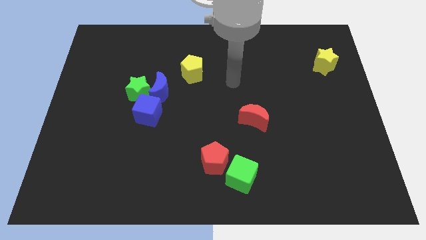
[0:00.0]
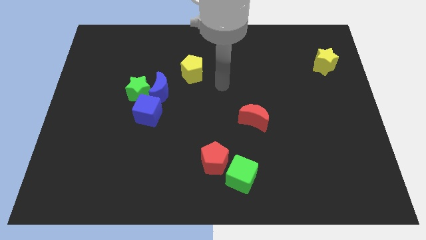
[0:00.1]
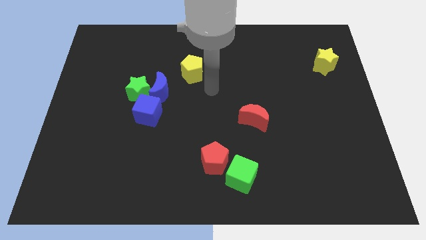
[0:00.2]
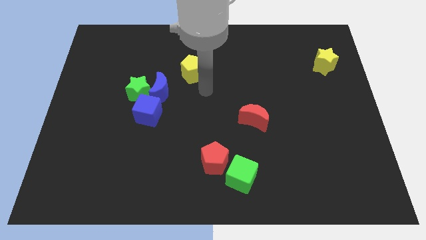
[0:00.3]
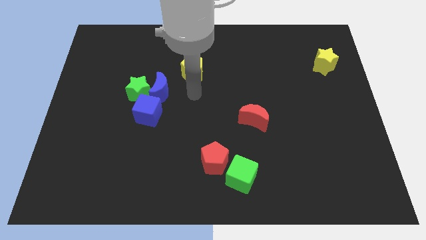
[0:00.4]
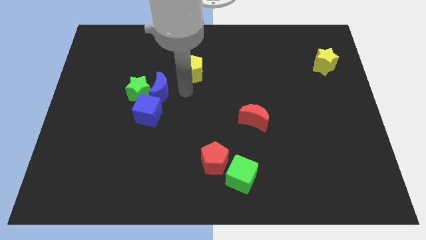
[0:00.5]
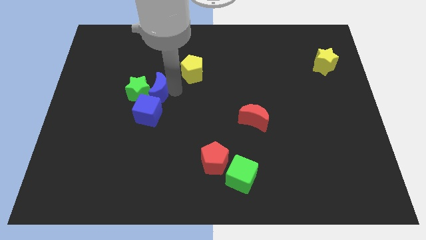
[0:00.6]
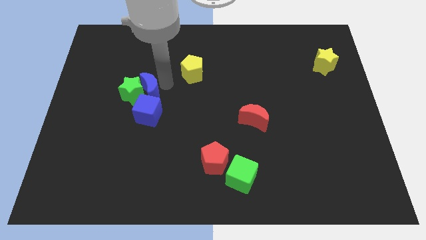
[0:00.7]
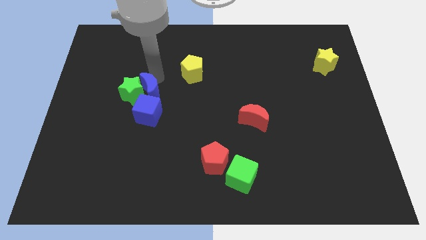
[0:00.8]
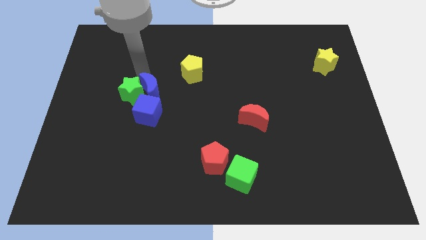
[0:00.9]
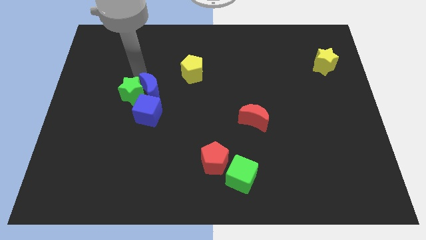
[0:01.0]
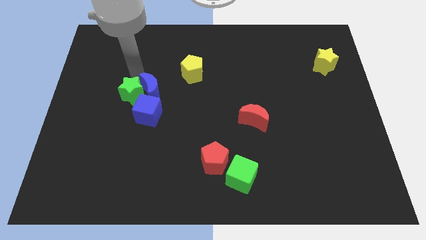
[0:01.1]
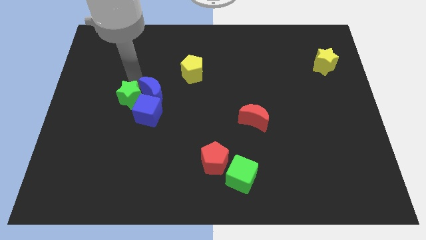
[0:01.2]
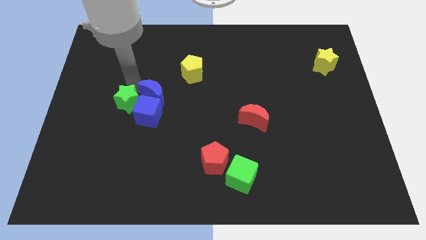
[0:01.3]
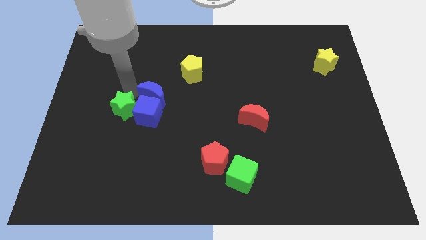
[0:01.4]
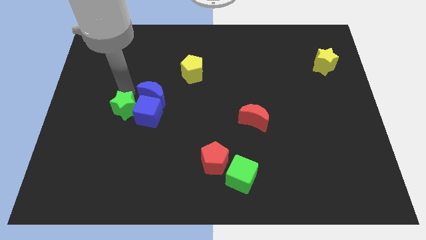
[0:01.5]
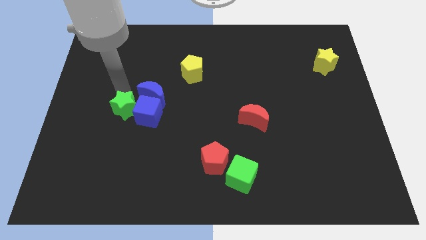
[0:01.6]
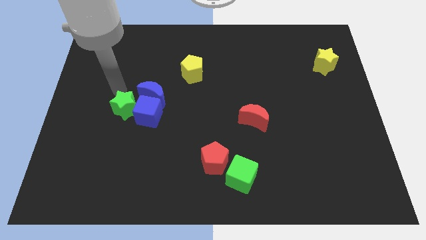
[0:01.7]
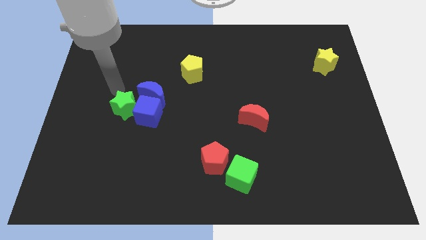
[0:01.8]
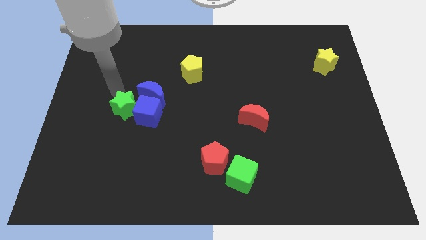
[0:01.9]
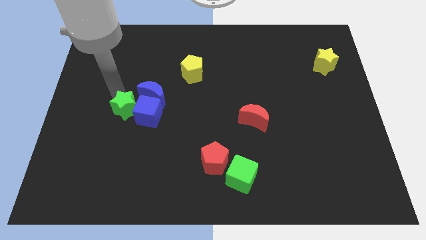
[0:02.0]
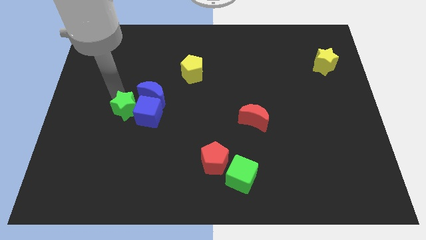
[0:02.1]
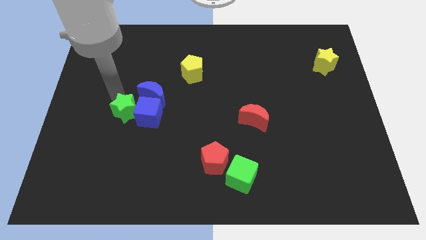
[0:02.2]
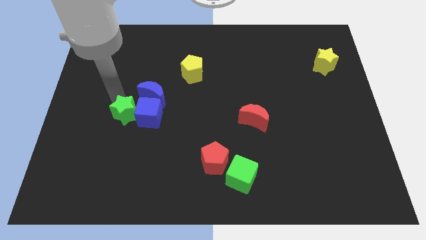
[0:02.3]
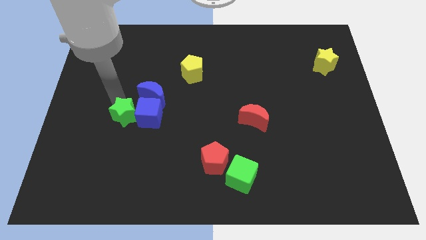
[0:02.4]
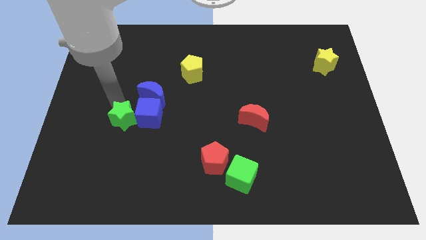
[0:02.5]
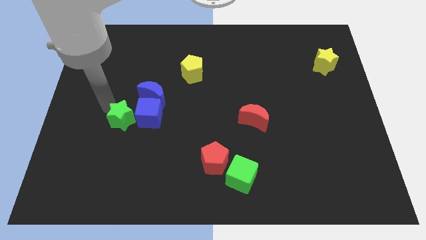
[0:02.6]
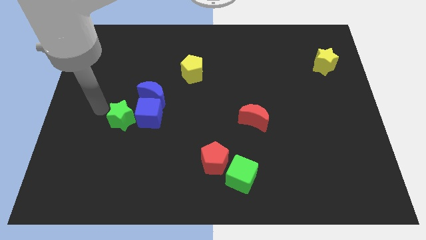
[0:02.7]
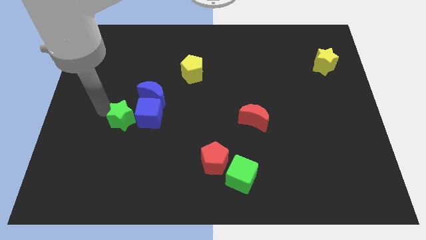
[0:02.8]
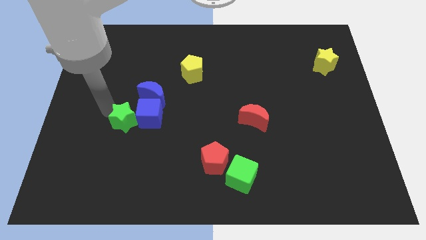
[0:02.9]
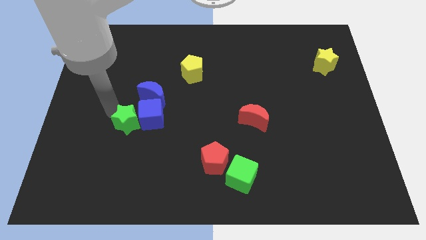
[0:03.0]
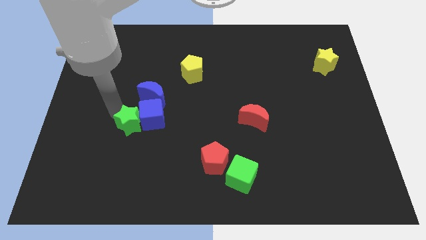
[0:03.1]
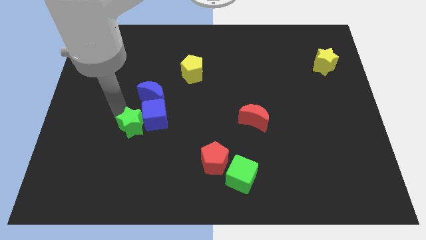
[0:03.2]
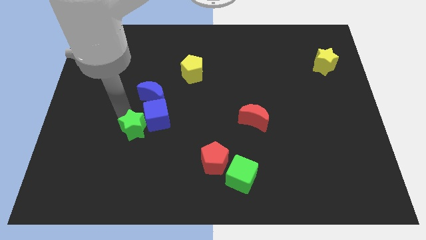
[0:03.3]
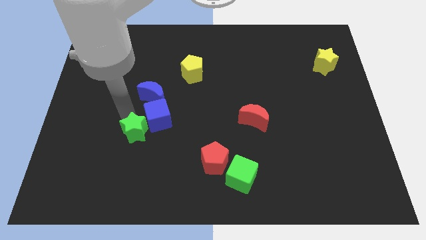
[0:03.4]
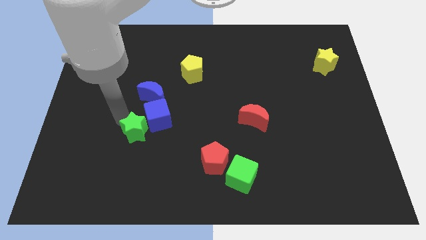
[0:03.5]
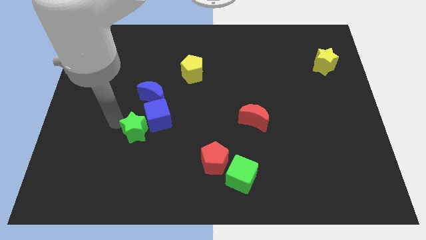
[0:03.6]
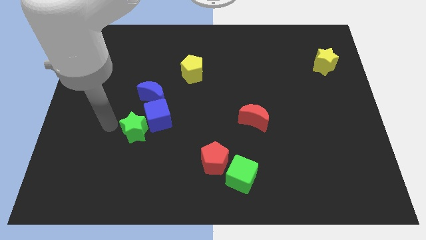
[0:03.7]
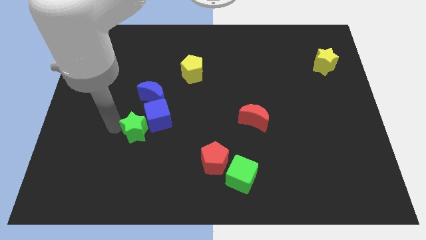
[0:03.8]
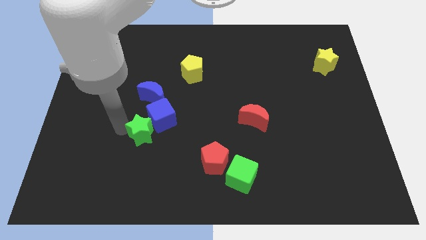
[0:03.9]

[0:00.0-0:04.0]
push the green star down and right a little bit

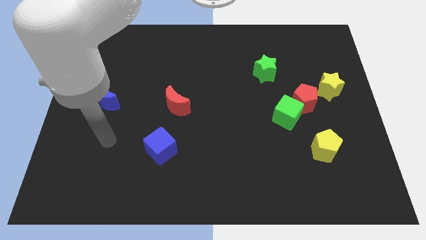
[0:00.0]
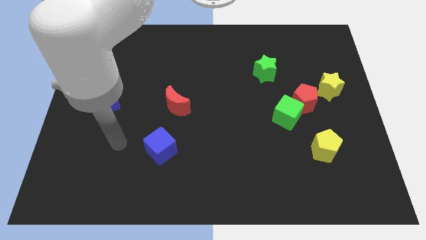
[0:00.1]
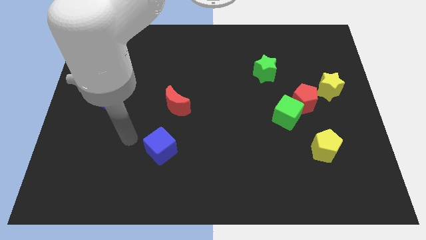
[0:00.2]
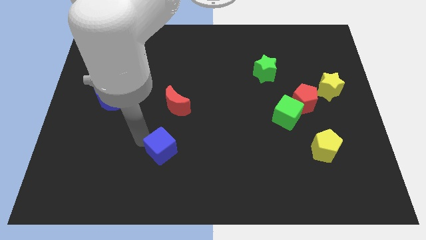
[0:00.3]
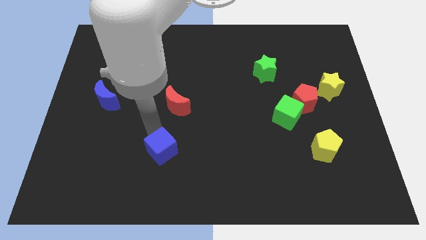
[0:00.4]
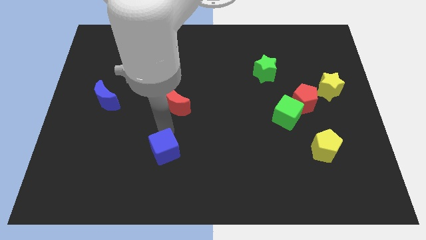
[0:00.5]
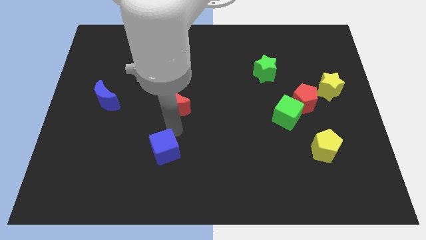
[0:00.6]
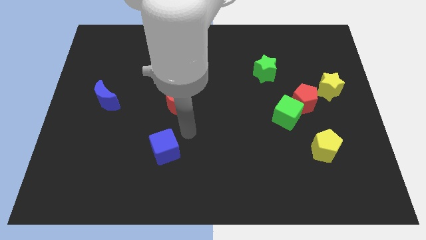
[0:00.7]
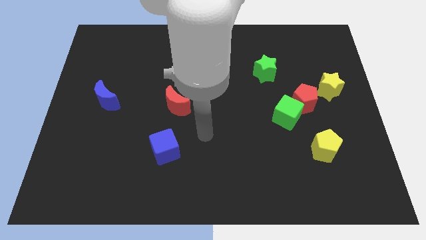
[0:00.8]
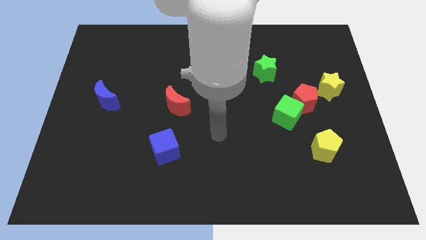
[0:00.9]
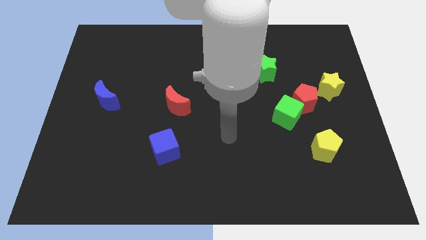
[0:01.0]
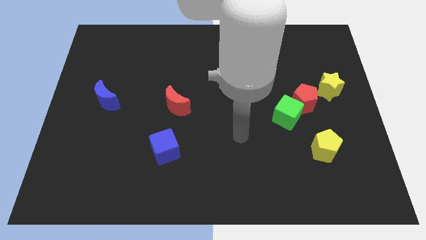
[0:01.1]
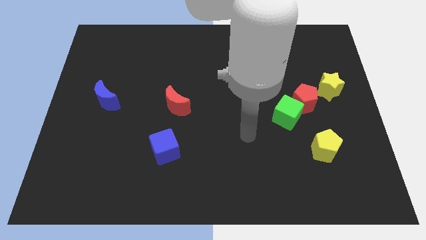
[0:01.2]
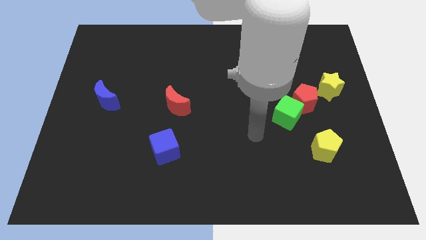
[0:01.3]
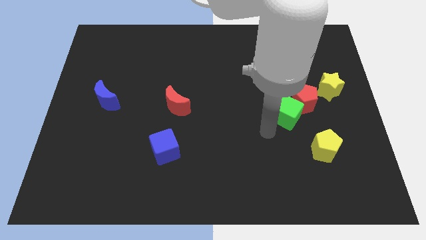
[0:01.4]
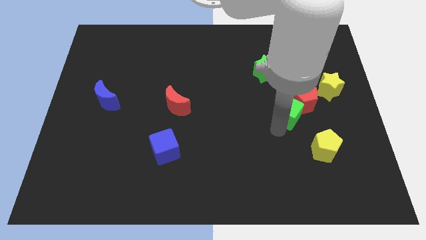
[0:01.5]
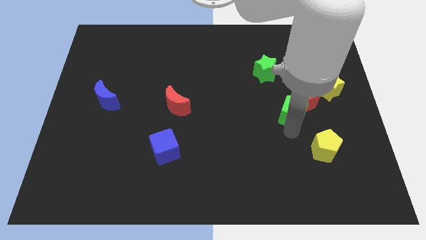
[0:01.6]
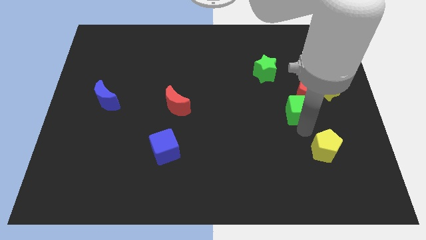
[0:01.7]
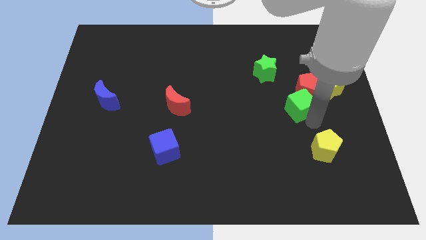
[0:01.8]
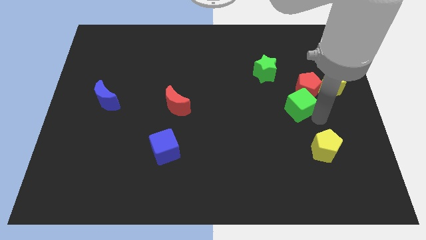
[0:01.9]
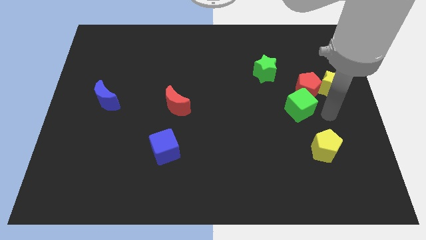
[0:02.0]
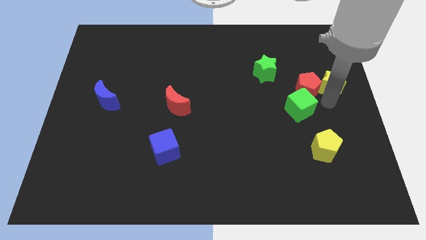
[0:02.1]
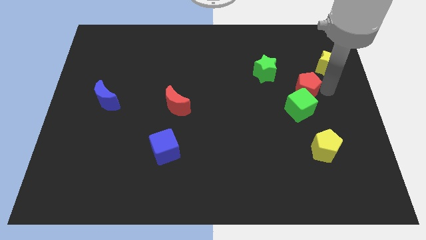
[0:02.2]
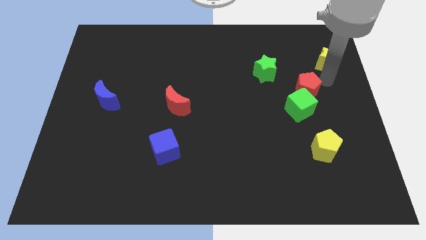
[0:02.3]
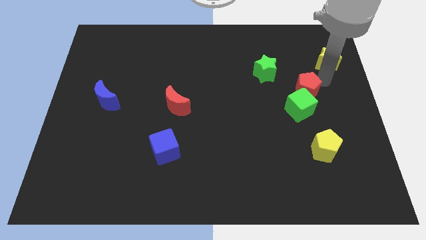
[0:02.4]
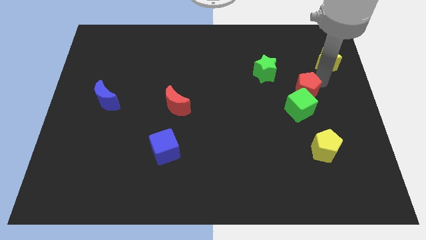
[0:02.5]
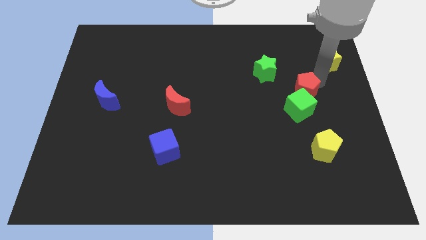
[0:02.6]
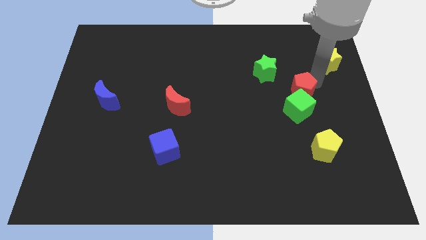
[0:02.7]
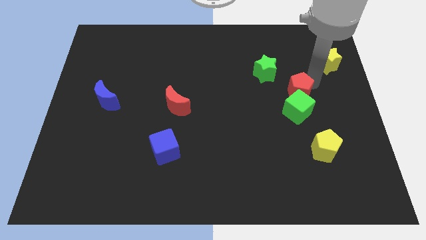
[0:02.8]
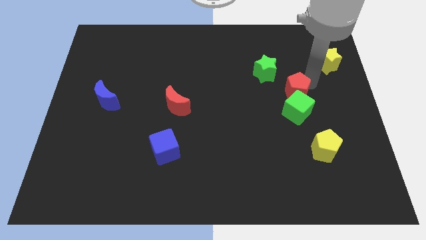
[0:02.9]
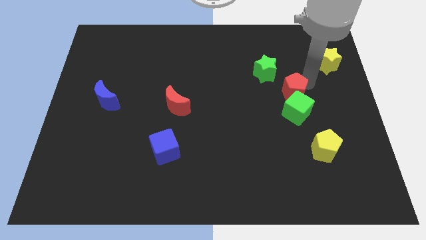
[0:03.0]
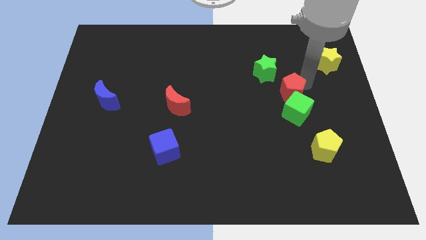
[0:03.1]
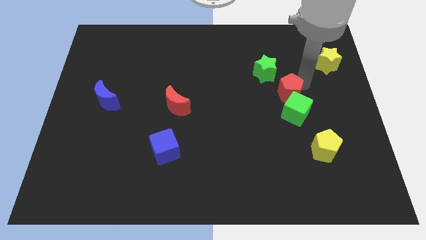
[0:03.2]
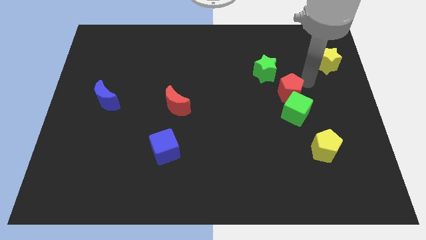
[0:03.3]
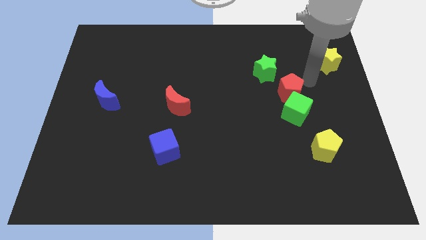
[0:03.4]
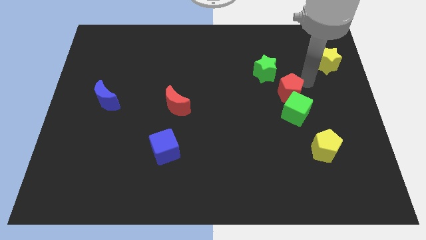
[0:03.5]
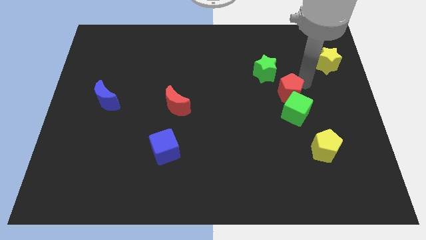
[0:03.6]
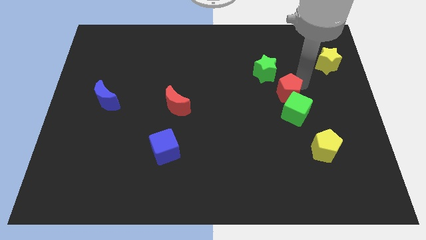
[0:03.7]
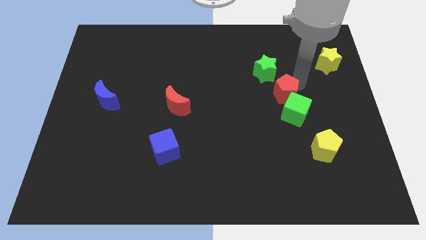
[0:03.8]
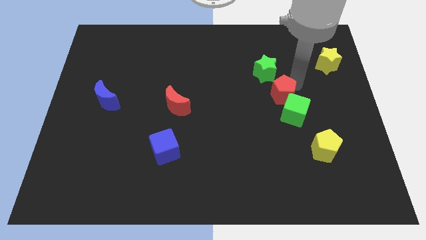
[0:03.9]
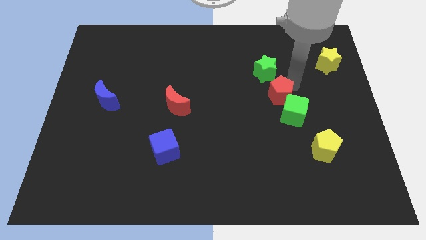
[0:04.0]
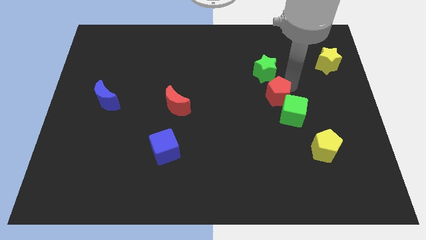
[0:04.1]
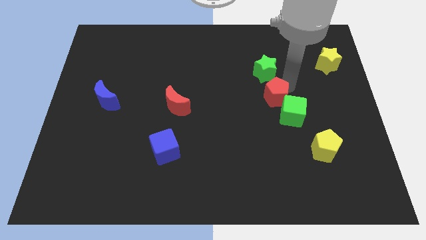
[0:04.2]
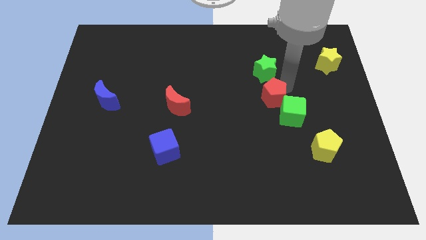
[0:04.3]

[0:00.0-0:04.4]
slide the red pentagon a bit left
